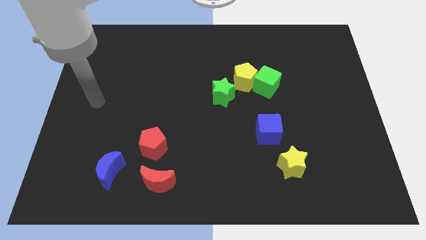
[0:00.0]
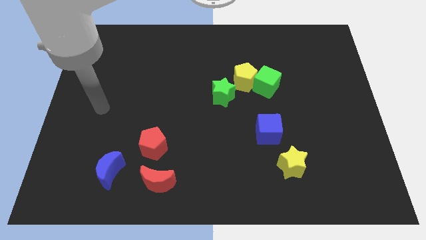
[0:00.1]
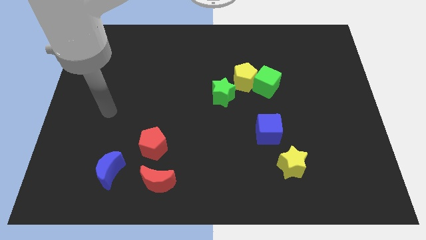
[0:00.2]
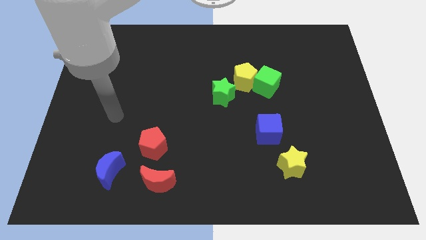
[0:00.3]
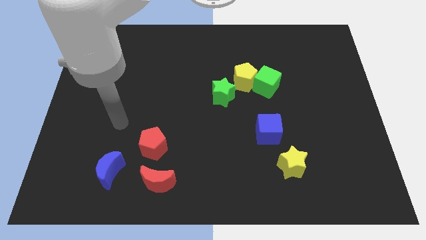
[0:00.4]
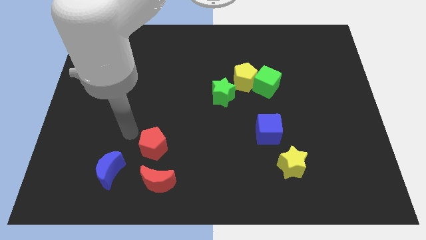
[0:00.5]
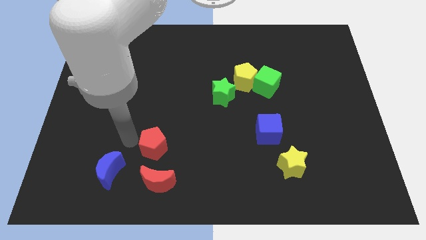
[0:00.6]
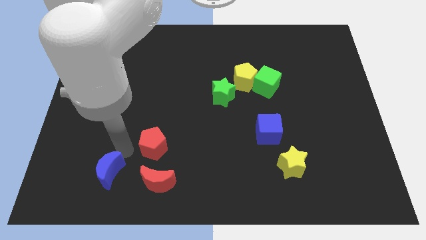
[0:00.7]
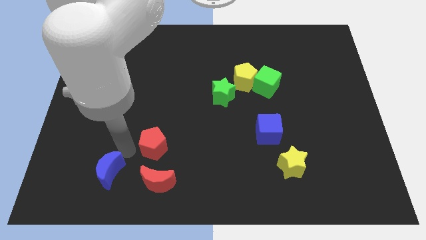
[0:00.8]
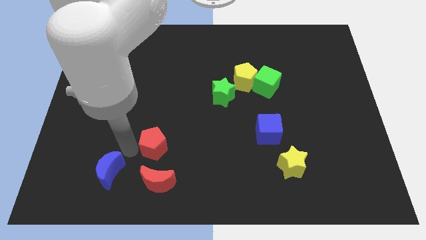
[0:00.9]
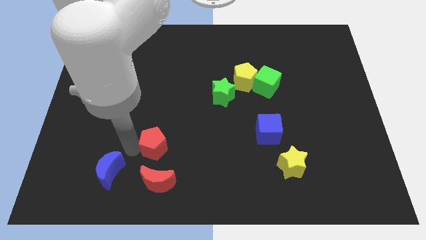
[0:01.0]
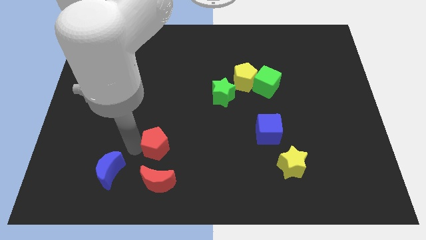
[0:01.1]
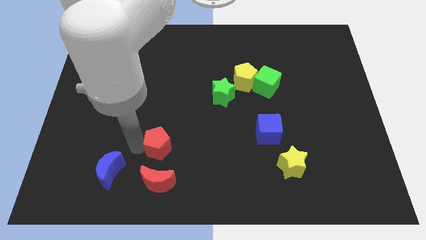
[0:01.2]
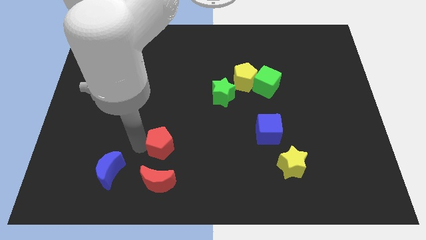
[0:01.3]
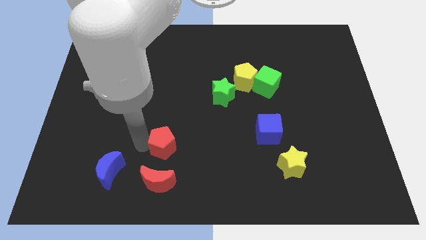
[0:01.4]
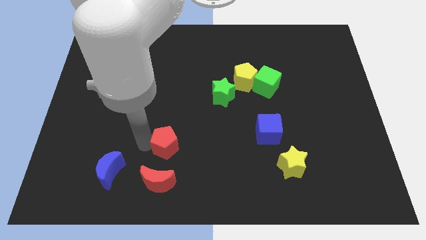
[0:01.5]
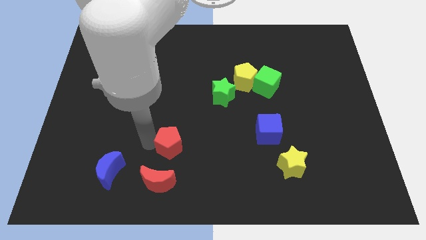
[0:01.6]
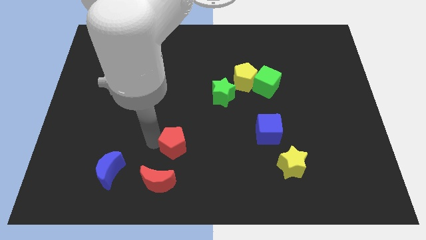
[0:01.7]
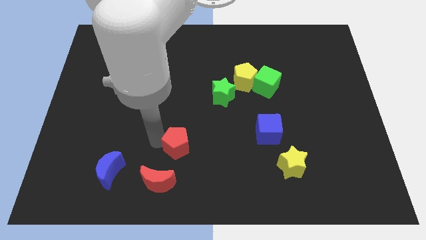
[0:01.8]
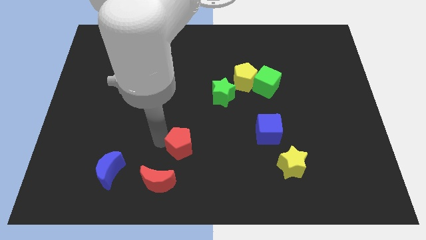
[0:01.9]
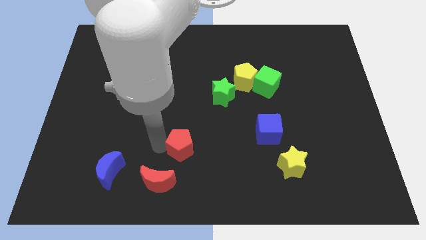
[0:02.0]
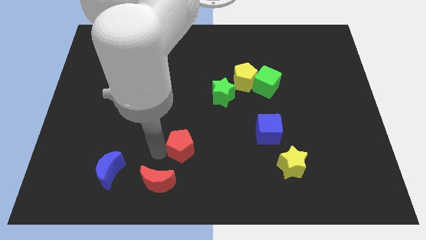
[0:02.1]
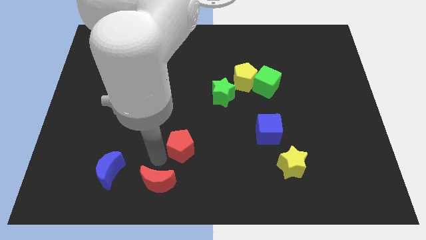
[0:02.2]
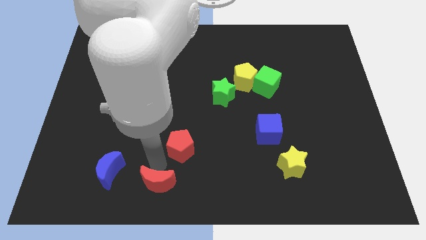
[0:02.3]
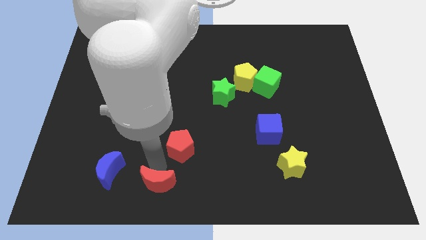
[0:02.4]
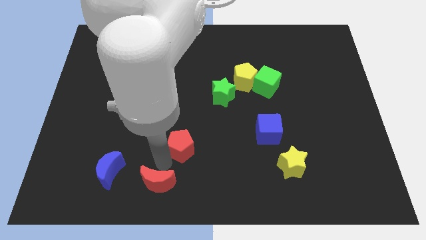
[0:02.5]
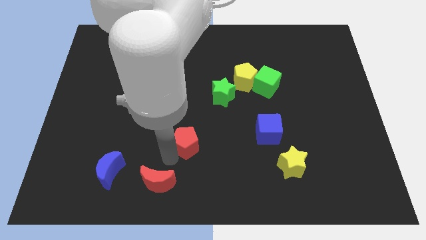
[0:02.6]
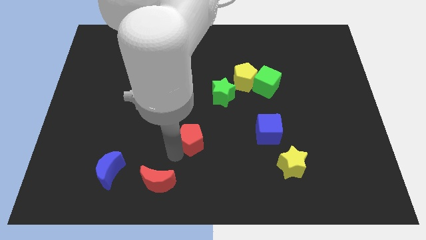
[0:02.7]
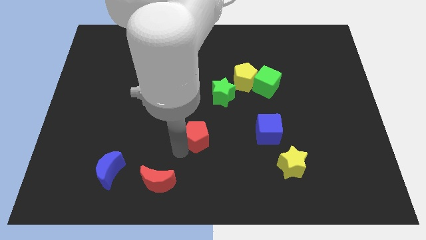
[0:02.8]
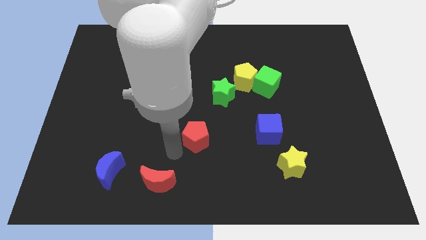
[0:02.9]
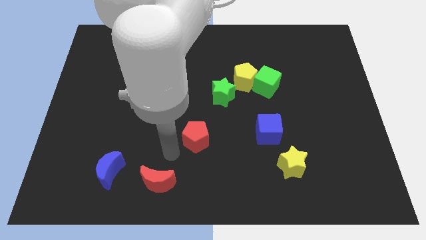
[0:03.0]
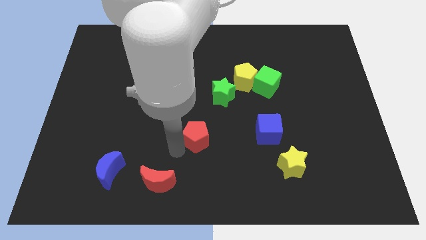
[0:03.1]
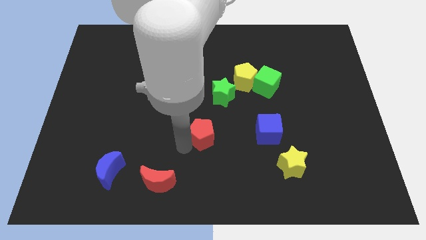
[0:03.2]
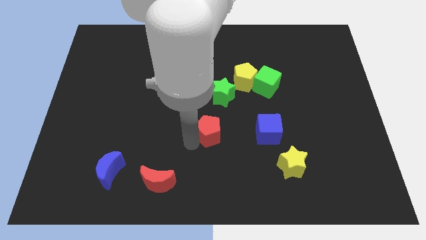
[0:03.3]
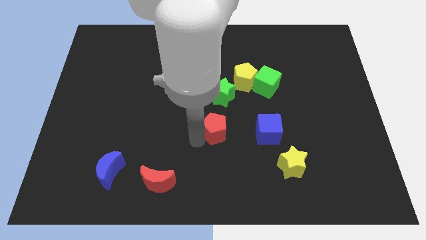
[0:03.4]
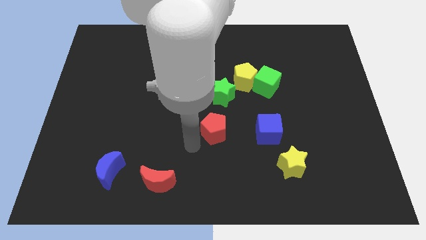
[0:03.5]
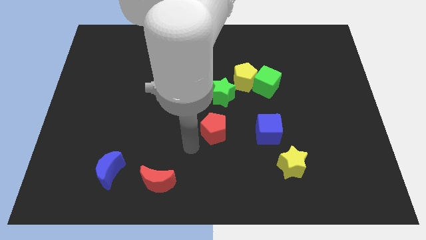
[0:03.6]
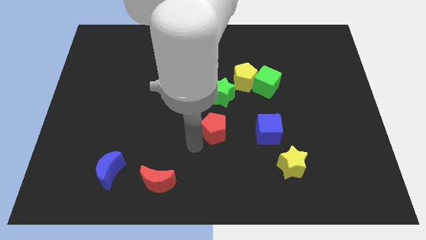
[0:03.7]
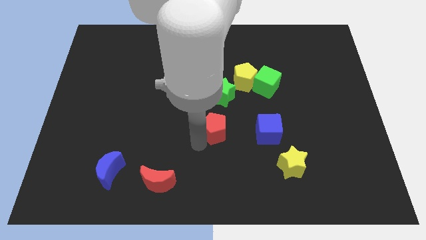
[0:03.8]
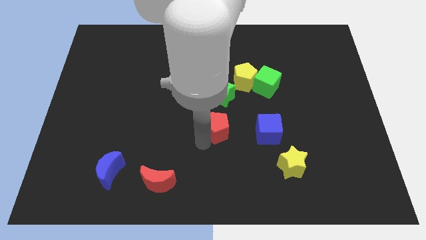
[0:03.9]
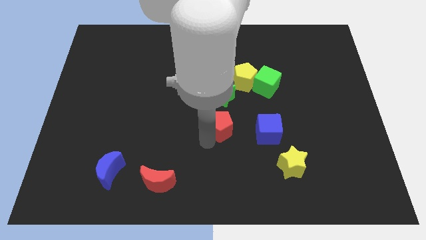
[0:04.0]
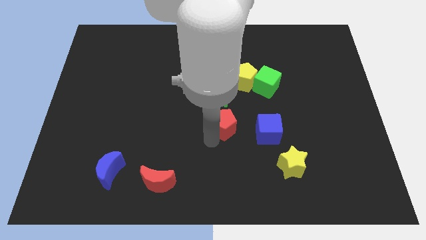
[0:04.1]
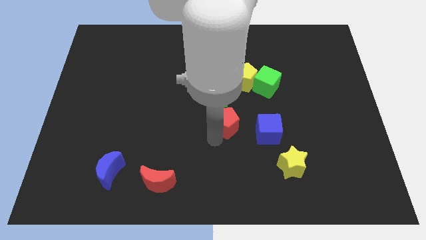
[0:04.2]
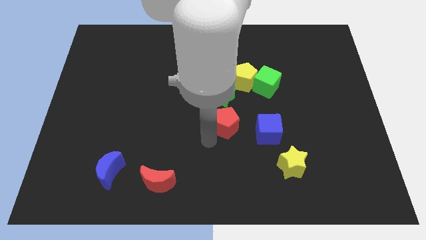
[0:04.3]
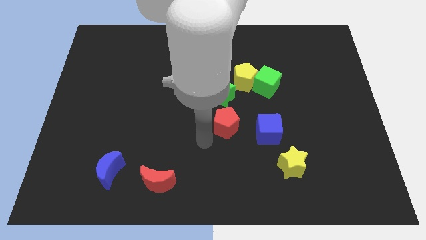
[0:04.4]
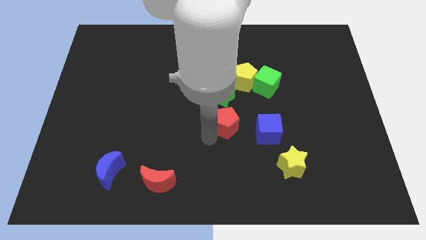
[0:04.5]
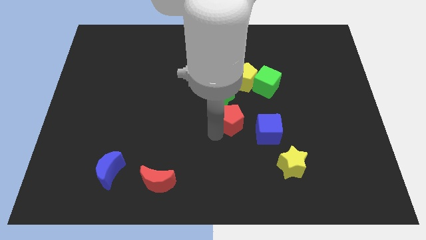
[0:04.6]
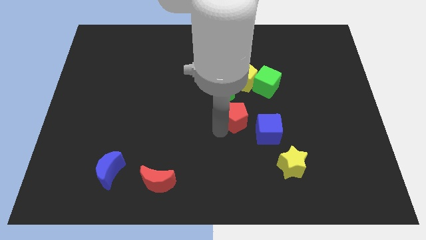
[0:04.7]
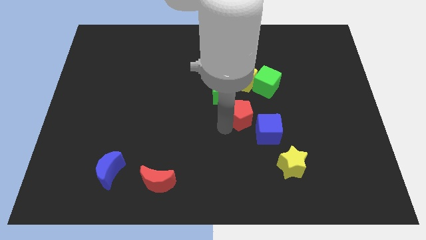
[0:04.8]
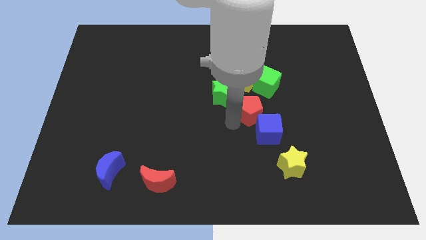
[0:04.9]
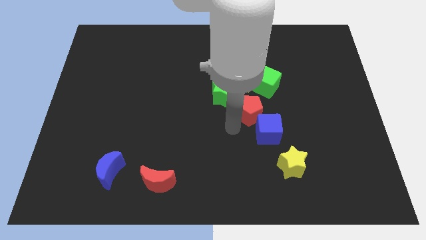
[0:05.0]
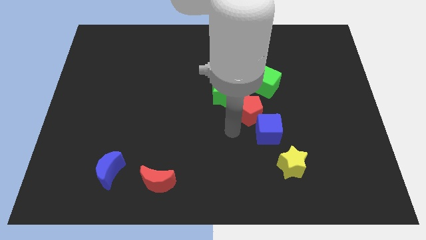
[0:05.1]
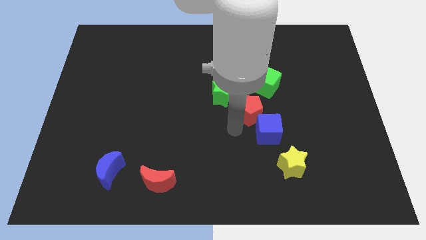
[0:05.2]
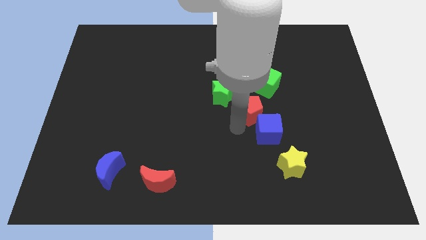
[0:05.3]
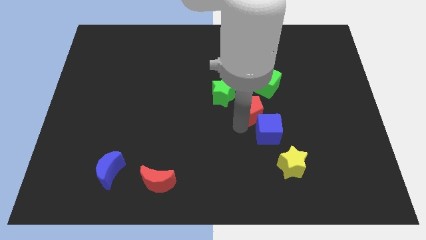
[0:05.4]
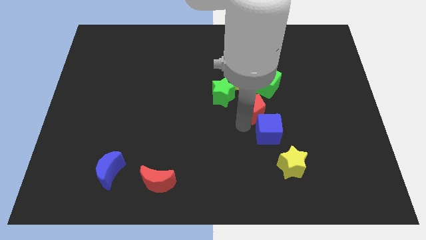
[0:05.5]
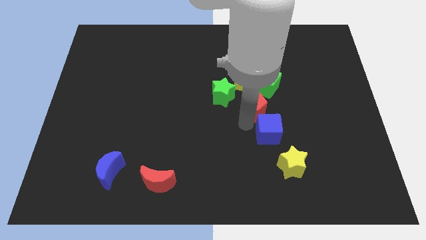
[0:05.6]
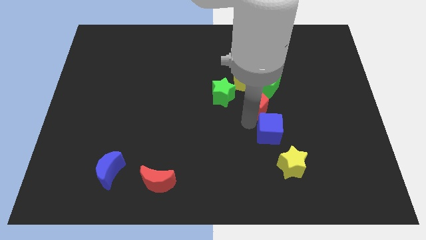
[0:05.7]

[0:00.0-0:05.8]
put the red pentagon to the bottom right side of the yellow pentagon
